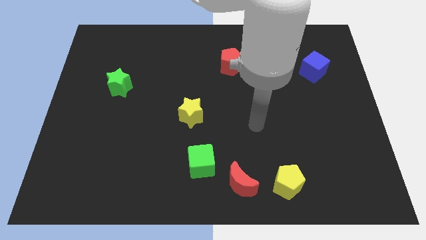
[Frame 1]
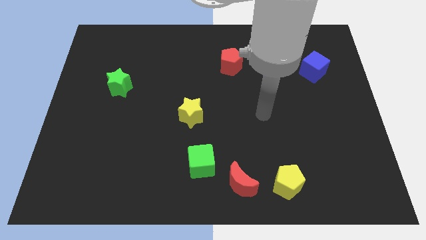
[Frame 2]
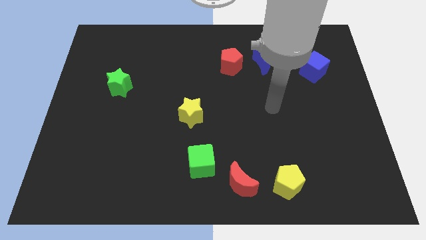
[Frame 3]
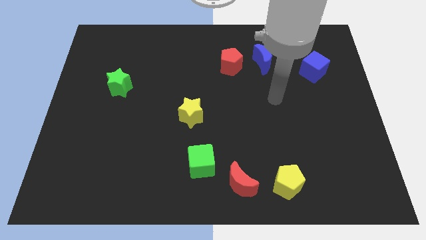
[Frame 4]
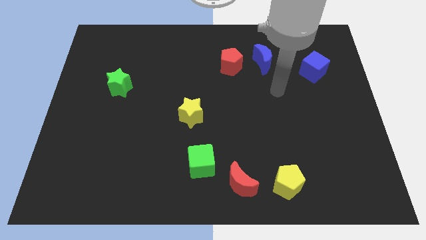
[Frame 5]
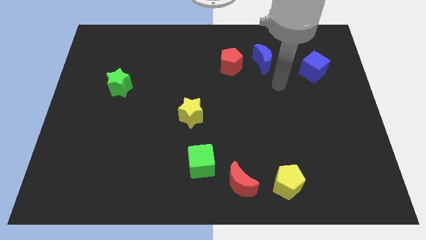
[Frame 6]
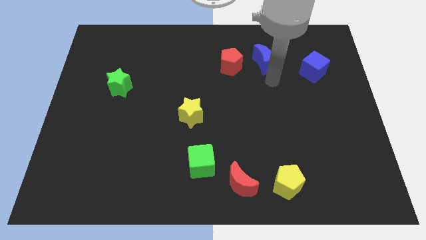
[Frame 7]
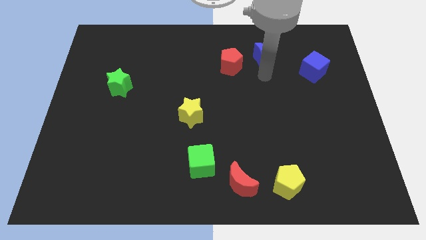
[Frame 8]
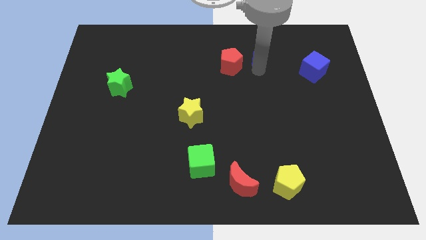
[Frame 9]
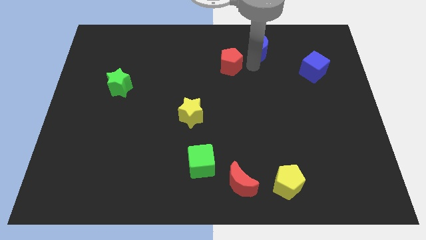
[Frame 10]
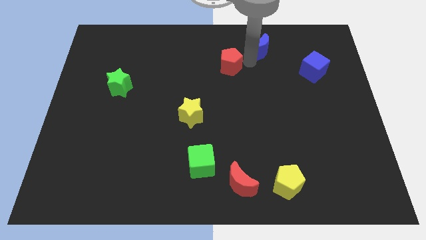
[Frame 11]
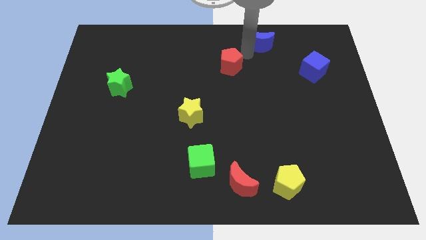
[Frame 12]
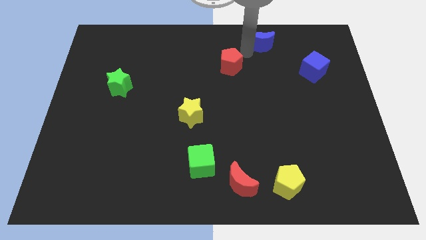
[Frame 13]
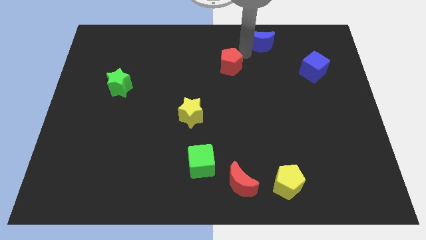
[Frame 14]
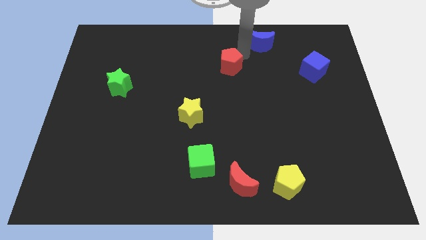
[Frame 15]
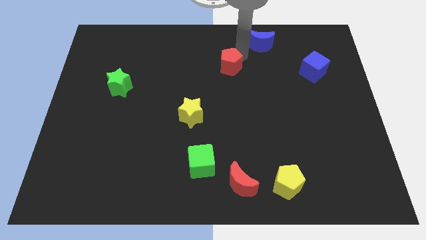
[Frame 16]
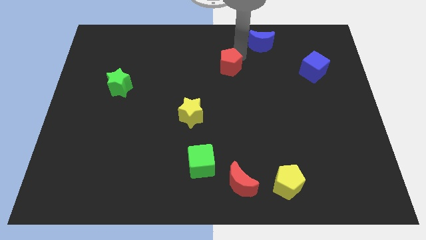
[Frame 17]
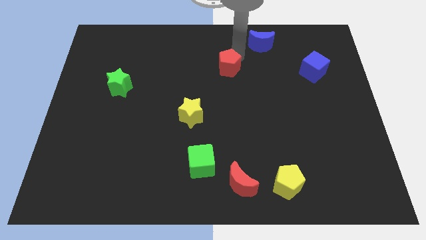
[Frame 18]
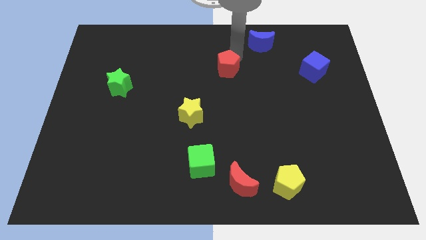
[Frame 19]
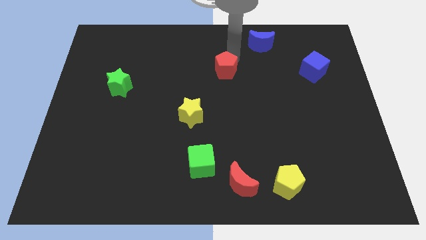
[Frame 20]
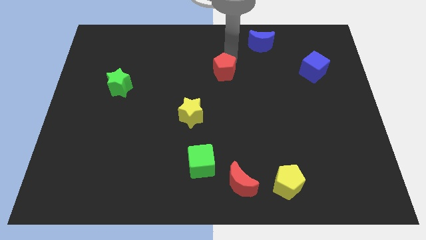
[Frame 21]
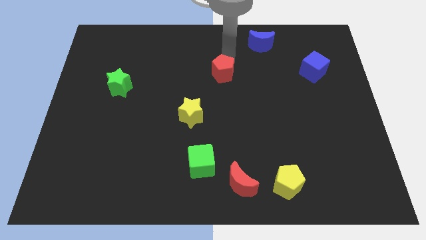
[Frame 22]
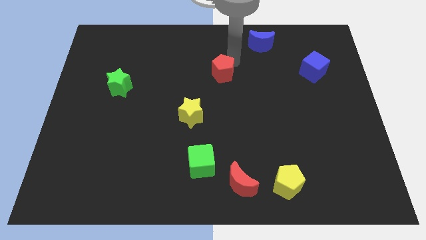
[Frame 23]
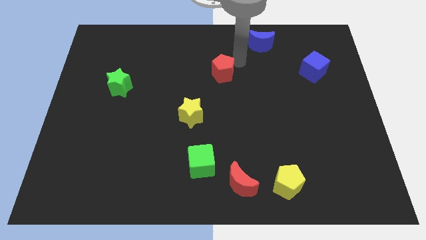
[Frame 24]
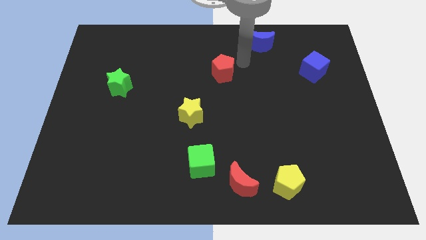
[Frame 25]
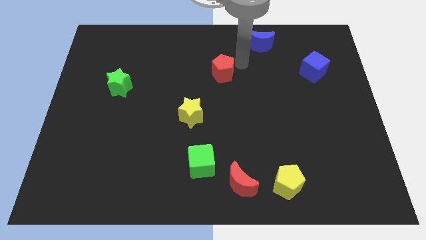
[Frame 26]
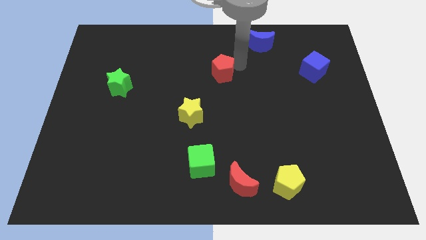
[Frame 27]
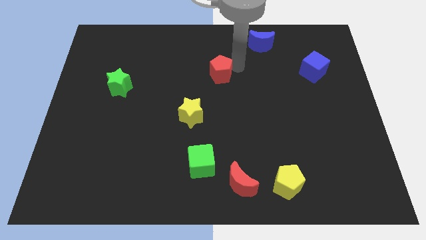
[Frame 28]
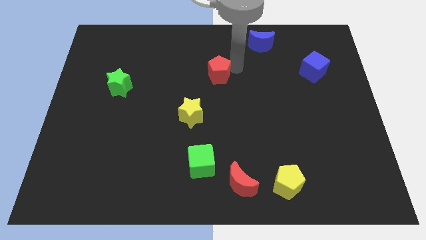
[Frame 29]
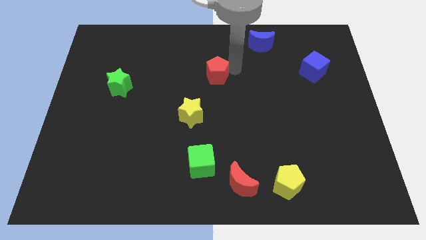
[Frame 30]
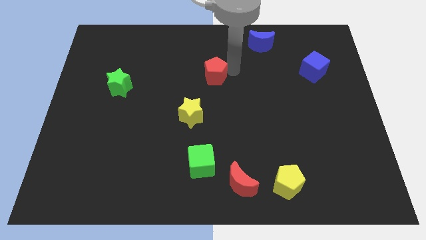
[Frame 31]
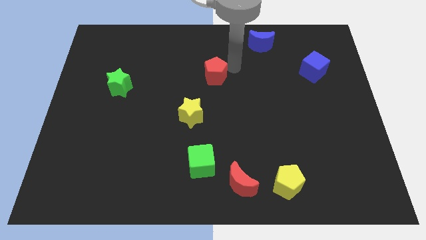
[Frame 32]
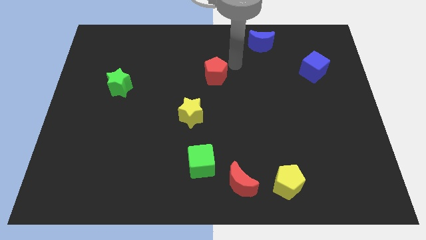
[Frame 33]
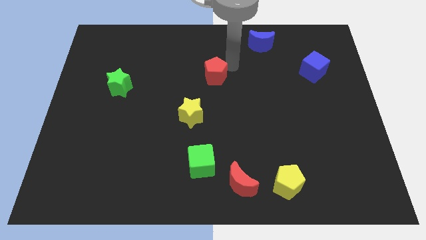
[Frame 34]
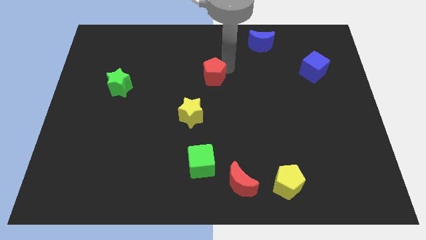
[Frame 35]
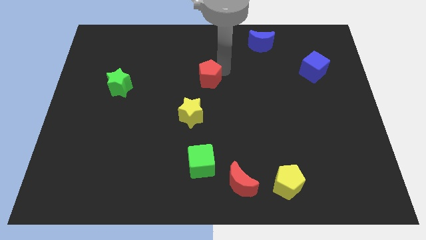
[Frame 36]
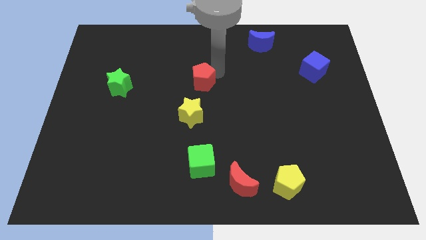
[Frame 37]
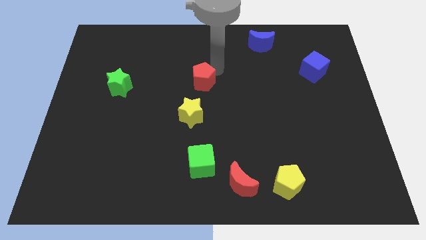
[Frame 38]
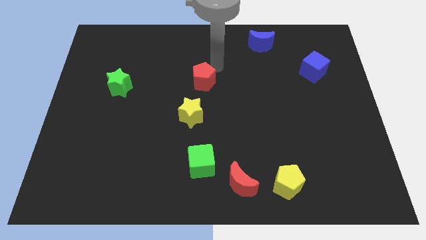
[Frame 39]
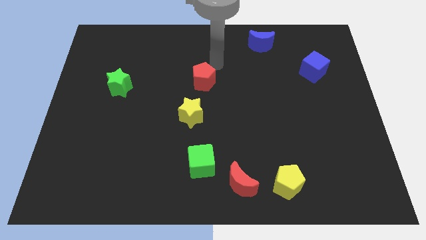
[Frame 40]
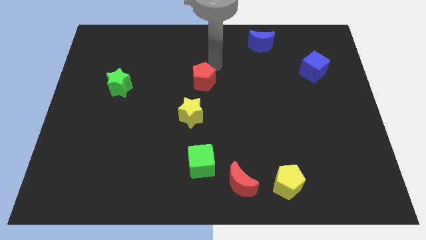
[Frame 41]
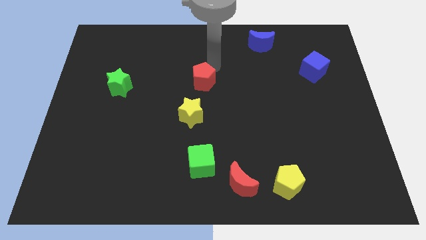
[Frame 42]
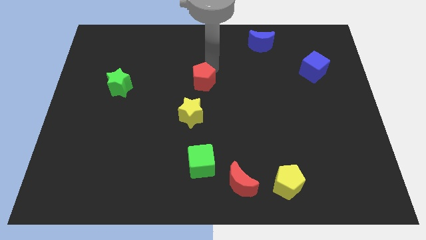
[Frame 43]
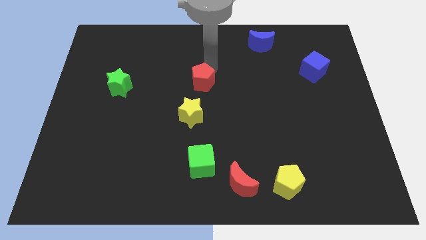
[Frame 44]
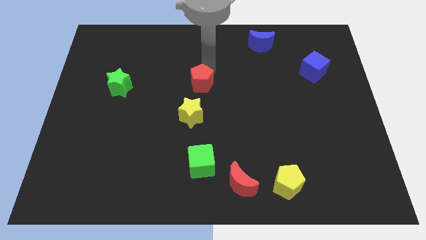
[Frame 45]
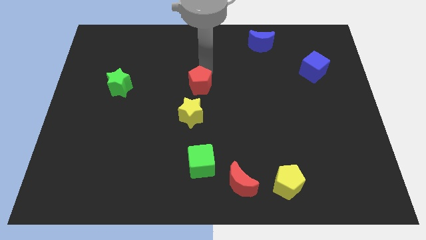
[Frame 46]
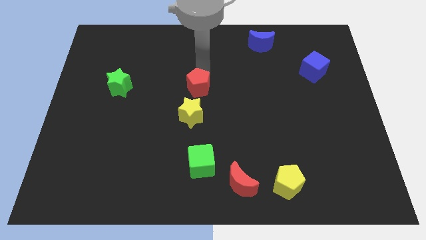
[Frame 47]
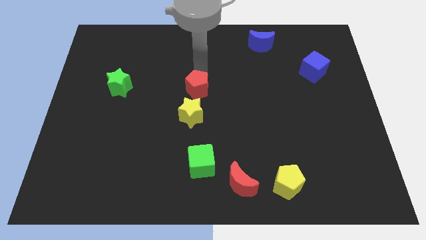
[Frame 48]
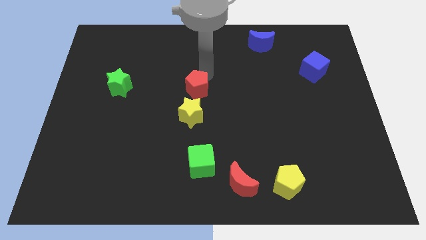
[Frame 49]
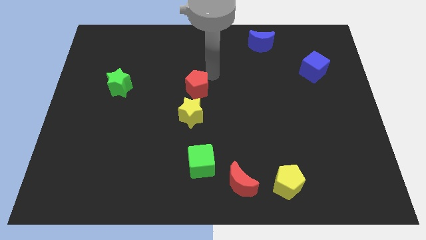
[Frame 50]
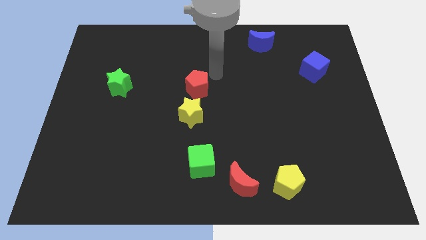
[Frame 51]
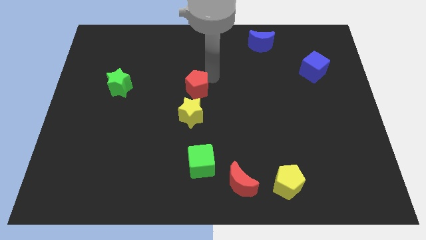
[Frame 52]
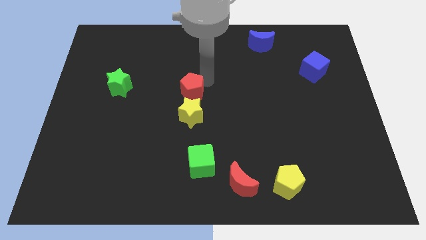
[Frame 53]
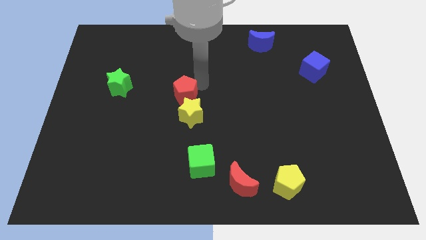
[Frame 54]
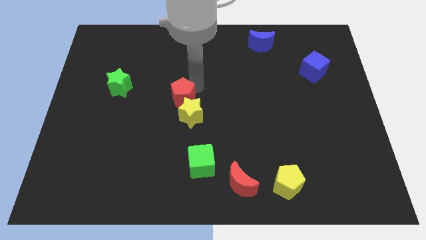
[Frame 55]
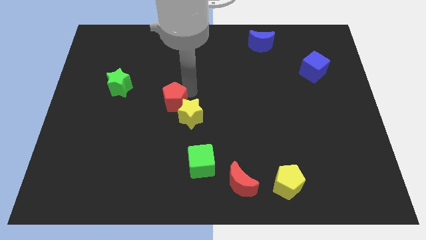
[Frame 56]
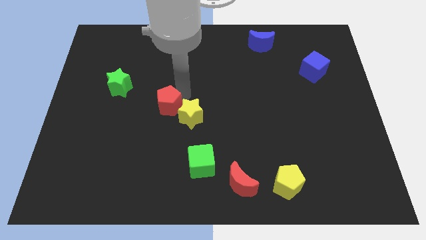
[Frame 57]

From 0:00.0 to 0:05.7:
slide the red pentagon downwards and left

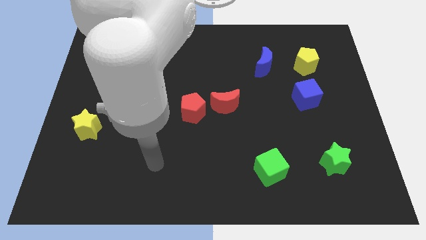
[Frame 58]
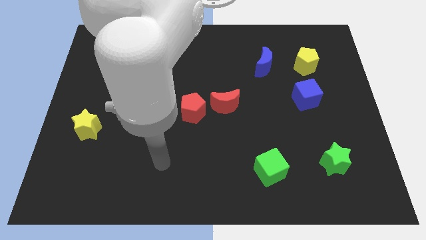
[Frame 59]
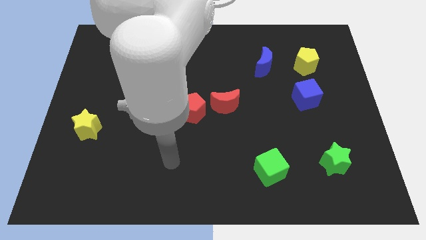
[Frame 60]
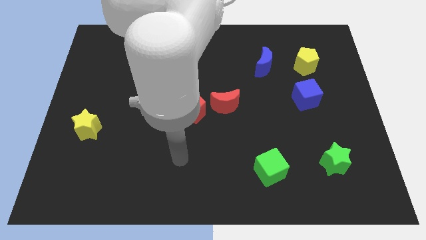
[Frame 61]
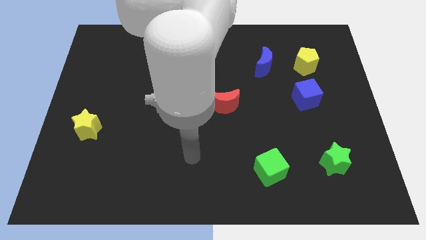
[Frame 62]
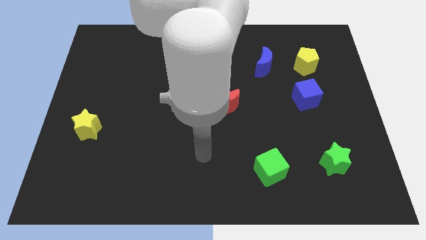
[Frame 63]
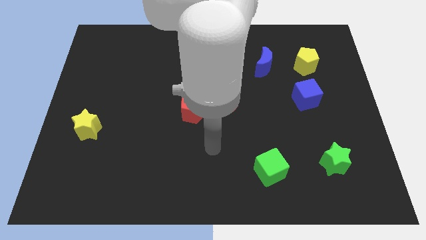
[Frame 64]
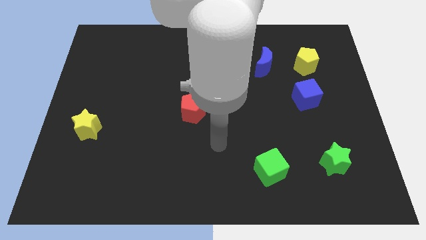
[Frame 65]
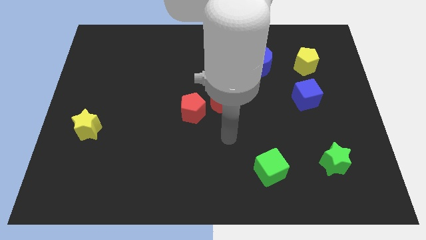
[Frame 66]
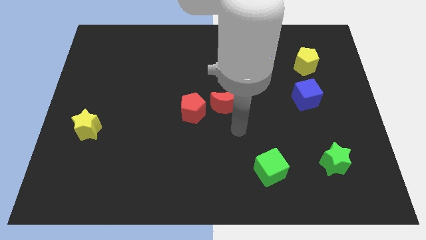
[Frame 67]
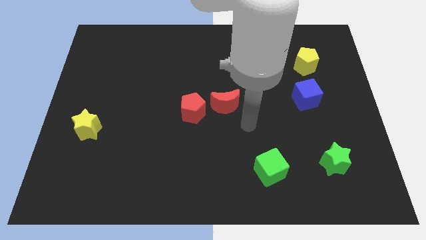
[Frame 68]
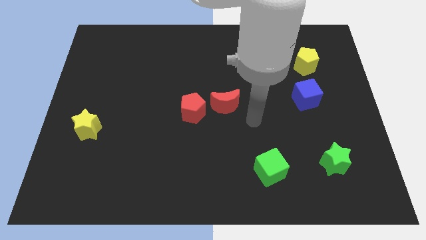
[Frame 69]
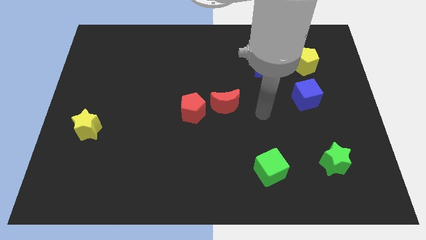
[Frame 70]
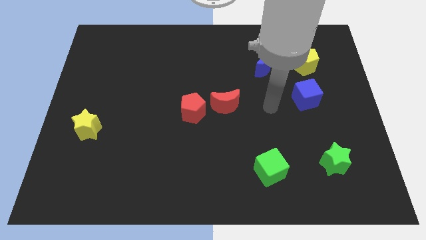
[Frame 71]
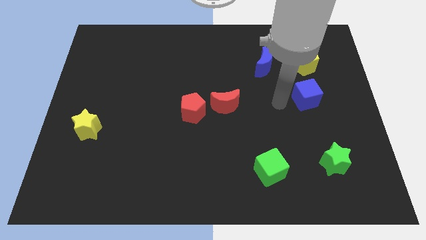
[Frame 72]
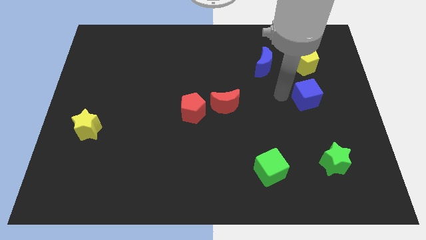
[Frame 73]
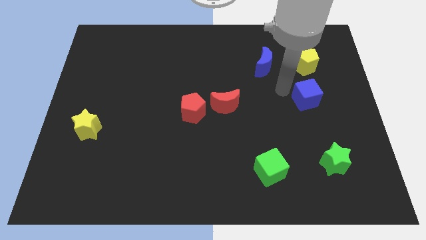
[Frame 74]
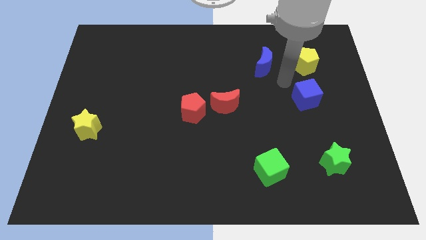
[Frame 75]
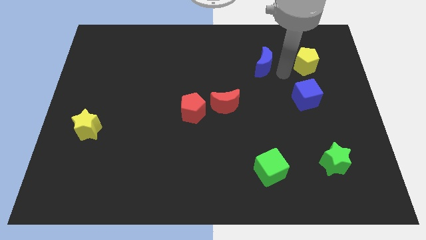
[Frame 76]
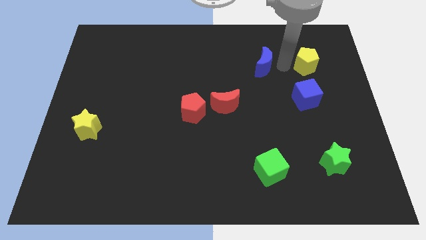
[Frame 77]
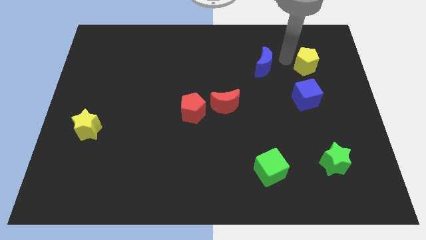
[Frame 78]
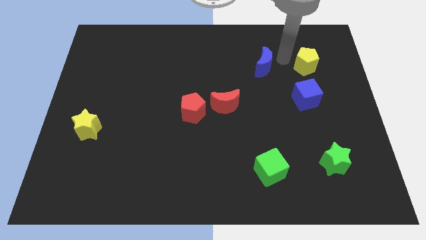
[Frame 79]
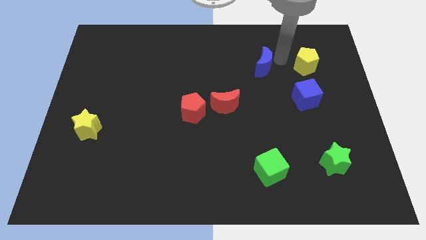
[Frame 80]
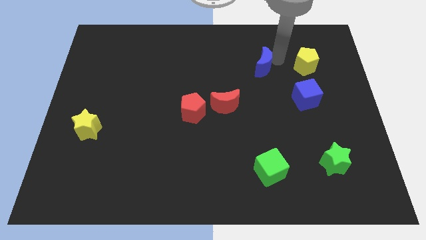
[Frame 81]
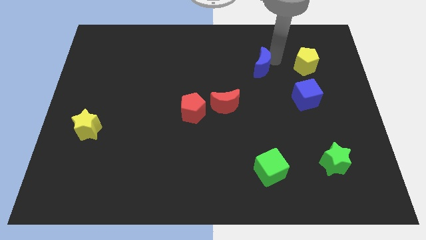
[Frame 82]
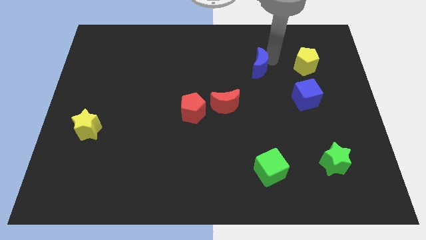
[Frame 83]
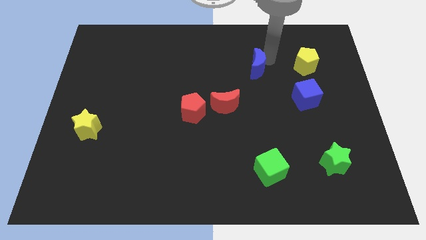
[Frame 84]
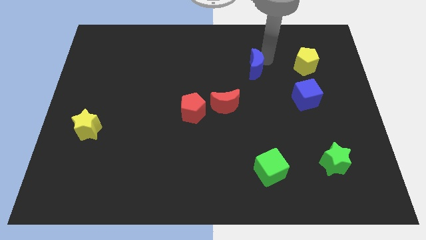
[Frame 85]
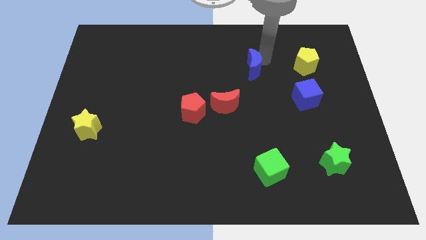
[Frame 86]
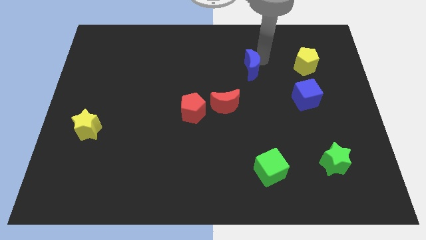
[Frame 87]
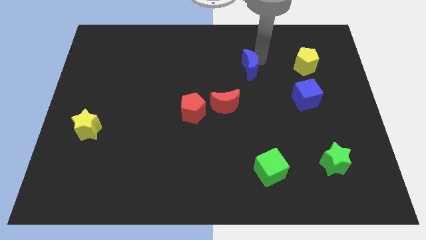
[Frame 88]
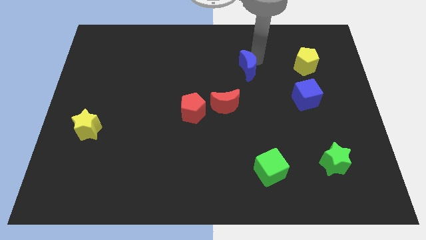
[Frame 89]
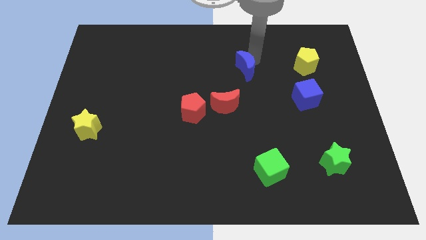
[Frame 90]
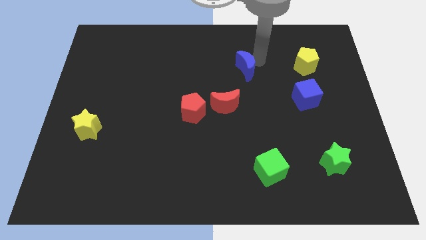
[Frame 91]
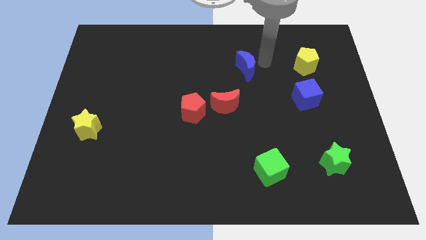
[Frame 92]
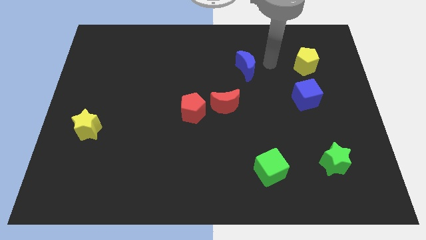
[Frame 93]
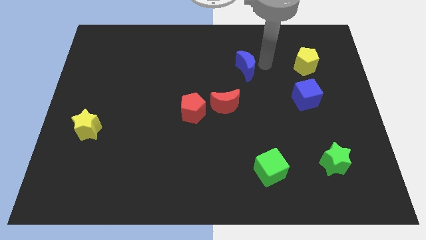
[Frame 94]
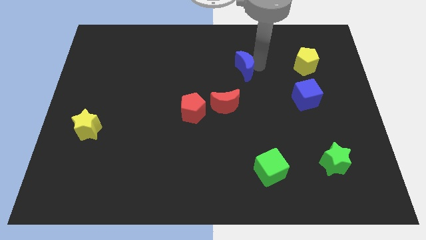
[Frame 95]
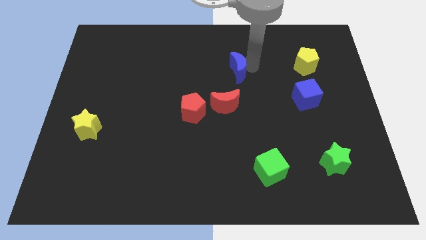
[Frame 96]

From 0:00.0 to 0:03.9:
slightly slide the blue moon left
